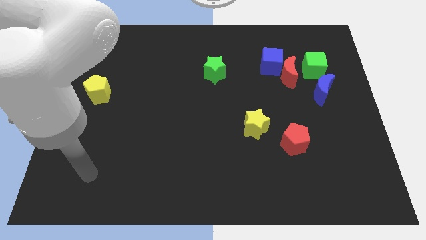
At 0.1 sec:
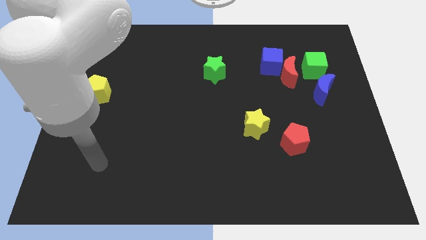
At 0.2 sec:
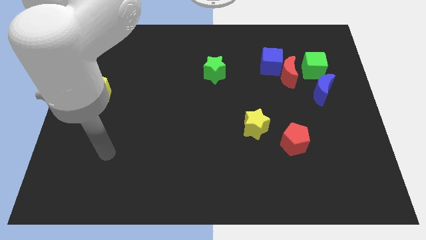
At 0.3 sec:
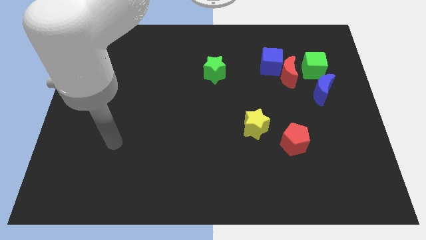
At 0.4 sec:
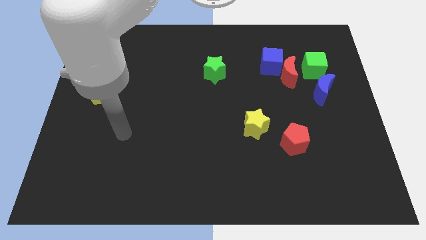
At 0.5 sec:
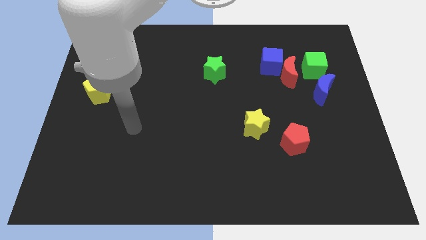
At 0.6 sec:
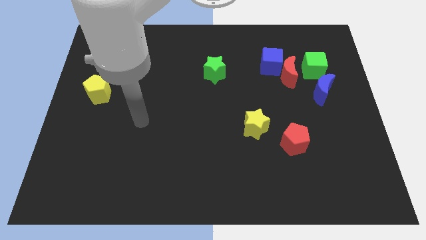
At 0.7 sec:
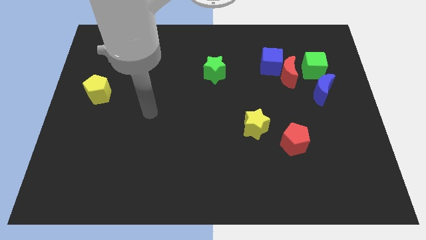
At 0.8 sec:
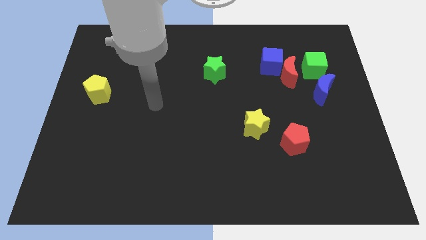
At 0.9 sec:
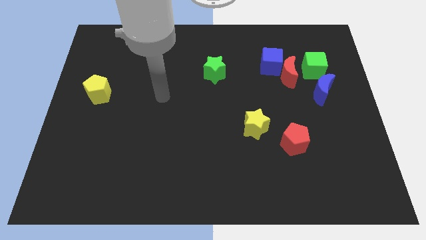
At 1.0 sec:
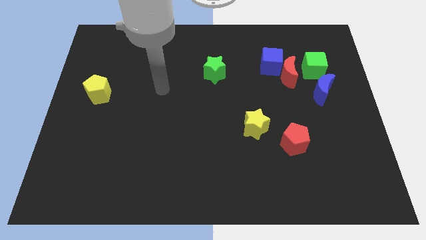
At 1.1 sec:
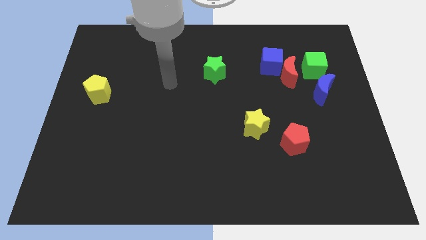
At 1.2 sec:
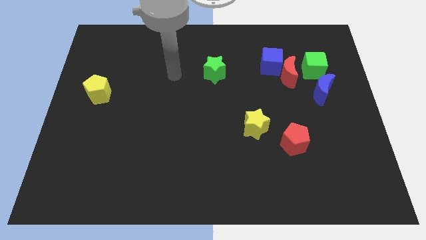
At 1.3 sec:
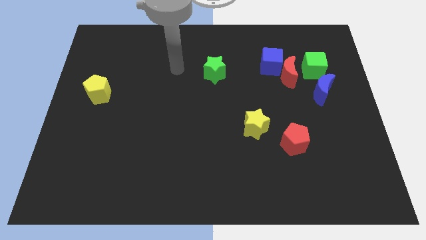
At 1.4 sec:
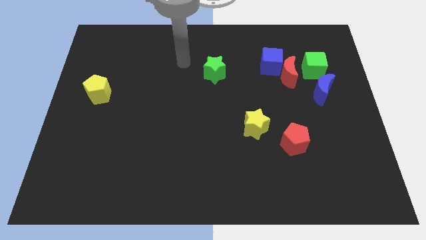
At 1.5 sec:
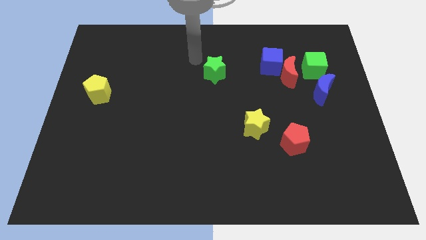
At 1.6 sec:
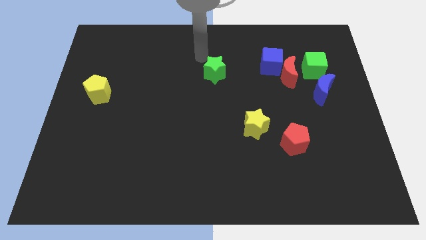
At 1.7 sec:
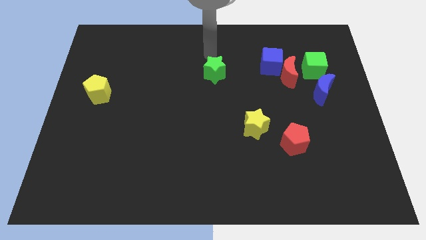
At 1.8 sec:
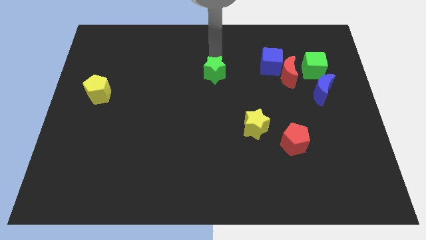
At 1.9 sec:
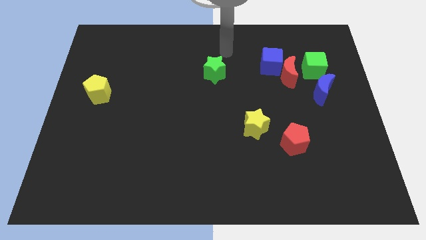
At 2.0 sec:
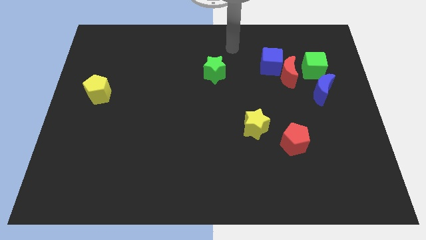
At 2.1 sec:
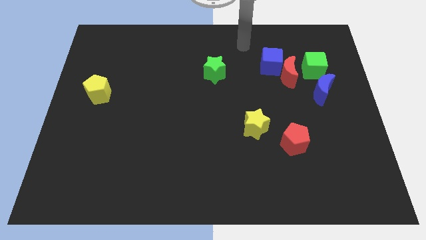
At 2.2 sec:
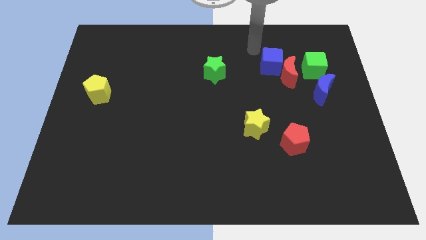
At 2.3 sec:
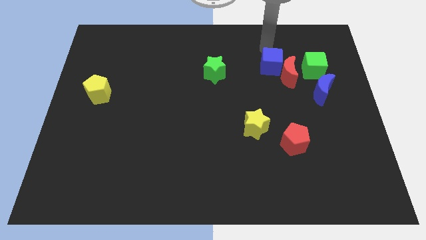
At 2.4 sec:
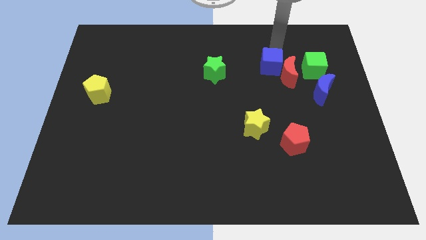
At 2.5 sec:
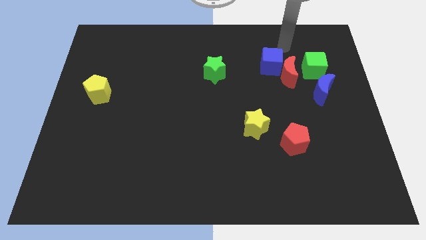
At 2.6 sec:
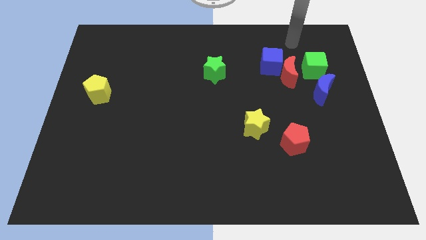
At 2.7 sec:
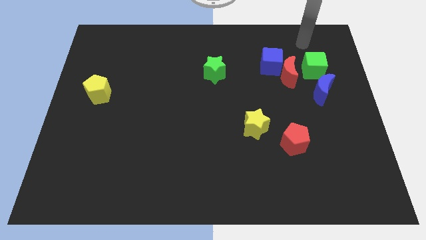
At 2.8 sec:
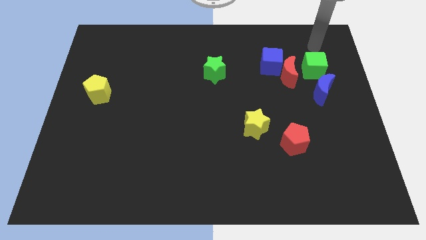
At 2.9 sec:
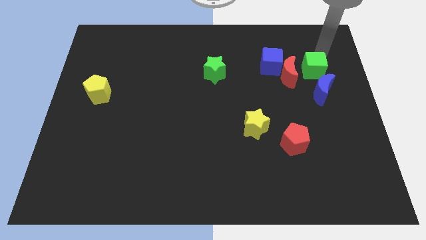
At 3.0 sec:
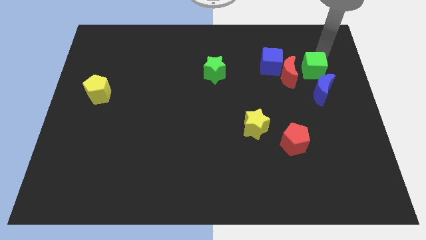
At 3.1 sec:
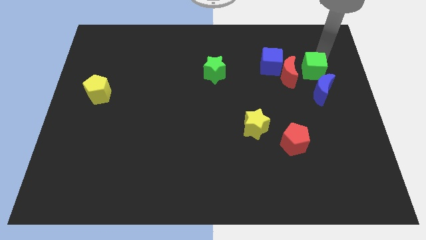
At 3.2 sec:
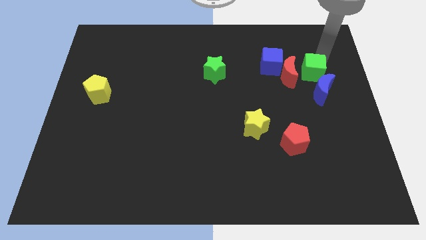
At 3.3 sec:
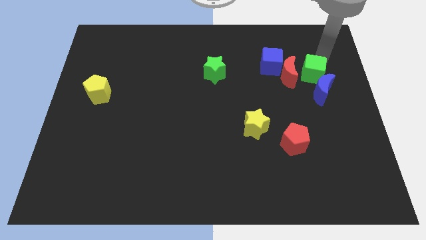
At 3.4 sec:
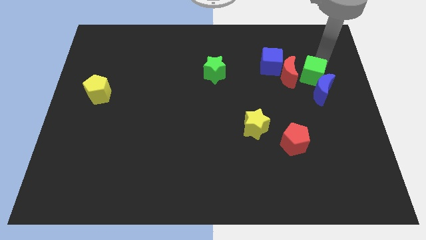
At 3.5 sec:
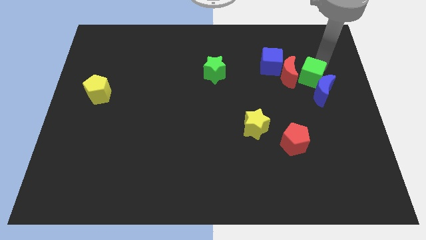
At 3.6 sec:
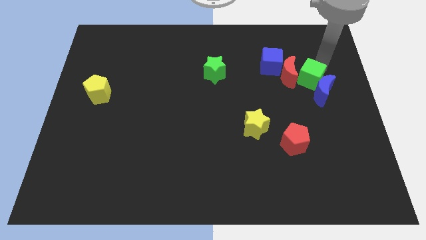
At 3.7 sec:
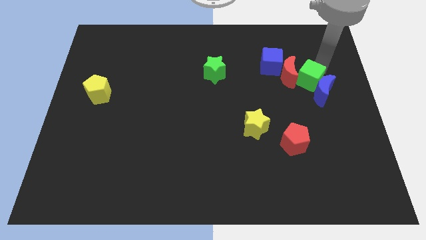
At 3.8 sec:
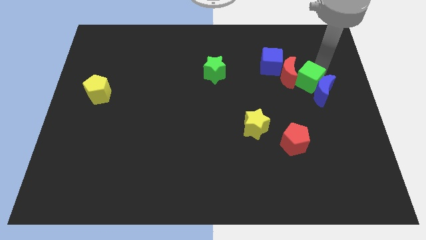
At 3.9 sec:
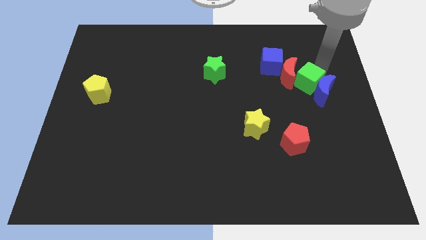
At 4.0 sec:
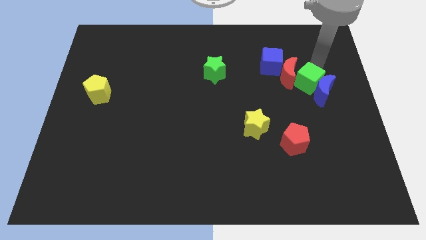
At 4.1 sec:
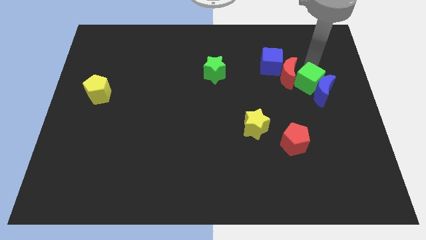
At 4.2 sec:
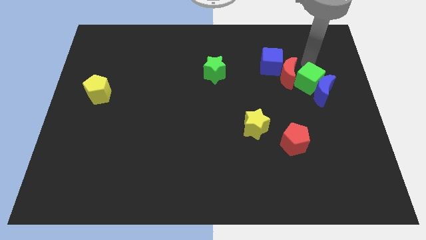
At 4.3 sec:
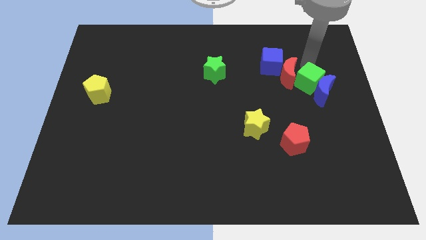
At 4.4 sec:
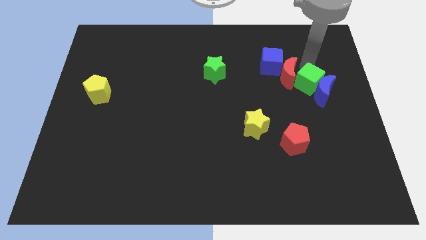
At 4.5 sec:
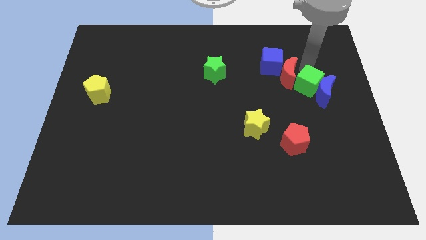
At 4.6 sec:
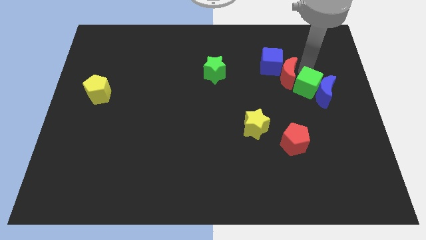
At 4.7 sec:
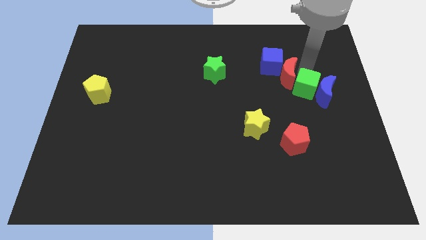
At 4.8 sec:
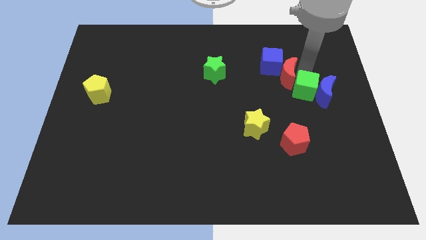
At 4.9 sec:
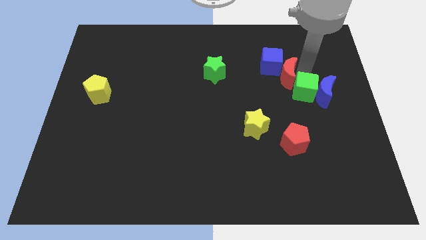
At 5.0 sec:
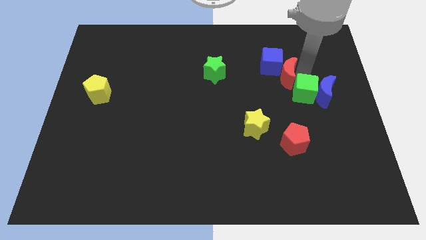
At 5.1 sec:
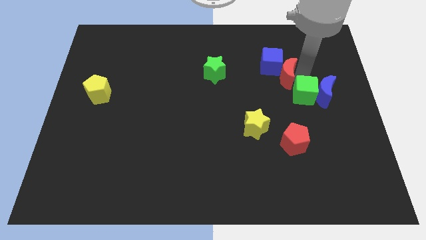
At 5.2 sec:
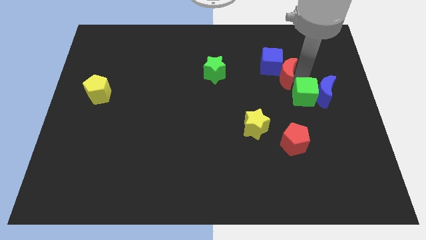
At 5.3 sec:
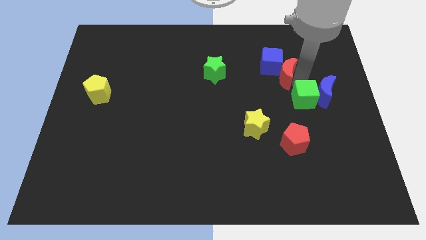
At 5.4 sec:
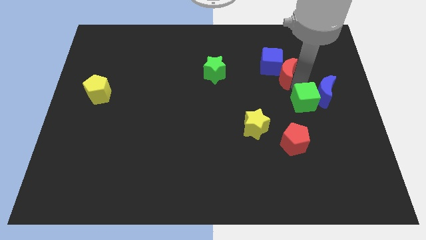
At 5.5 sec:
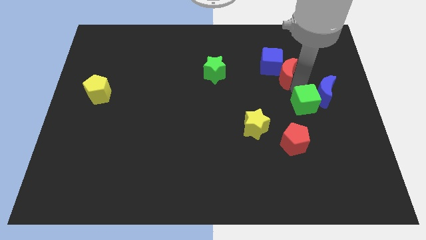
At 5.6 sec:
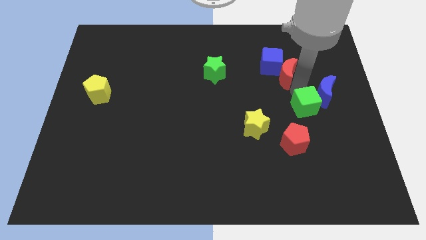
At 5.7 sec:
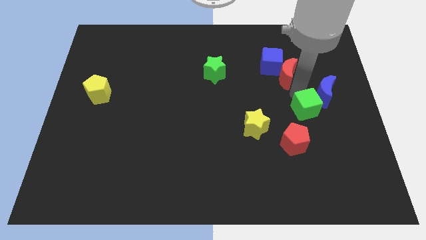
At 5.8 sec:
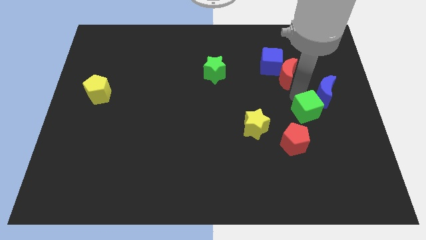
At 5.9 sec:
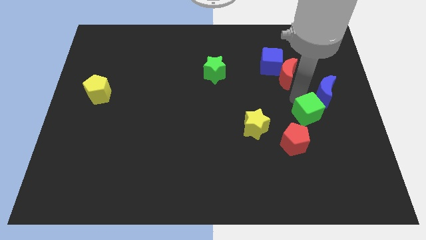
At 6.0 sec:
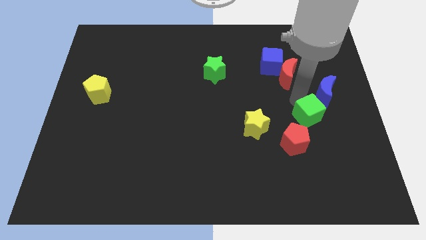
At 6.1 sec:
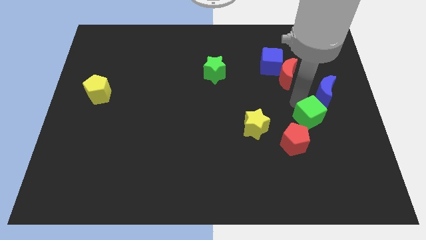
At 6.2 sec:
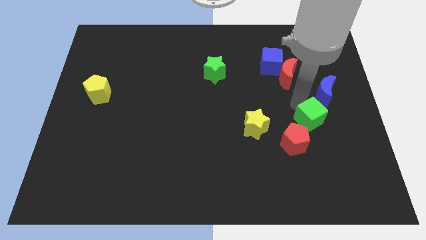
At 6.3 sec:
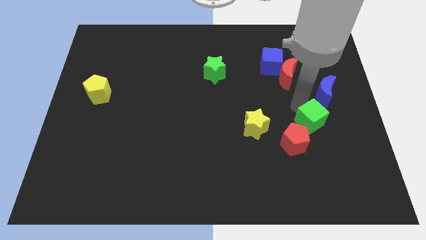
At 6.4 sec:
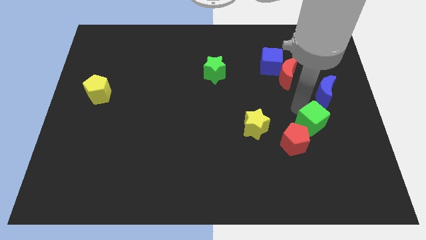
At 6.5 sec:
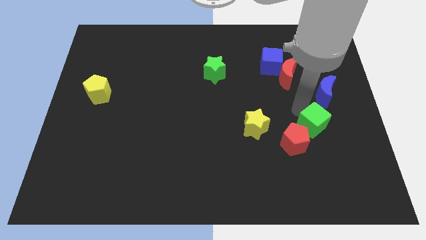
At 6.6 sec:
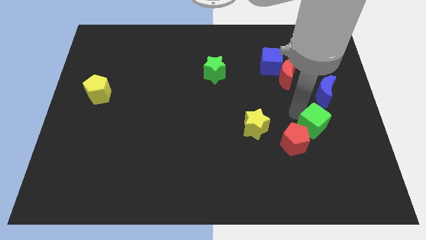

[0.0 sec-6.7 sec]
move the green cube right of the red pentagon

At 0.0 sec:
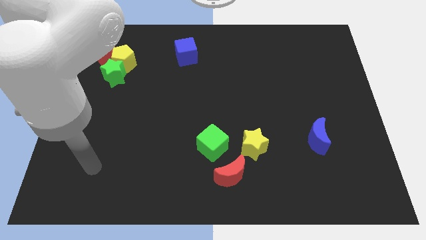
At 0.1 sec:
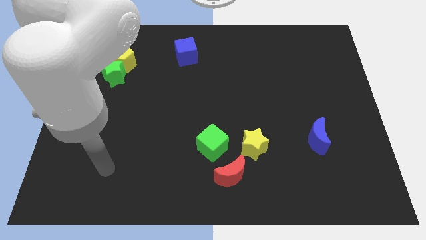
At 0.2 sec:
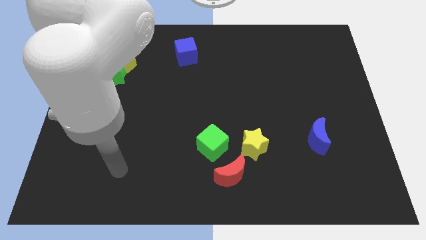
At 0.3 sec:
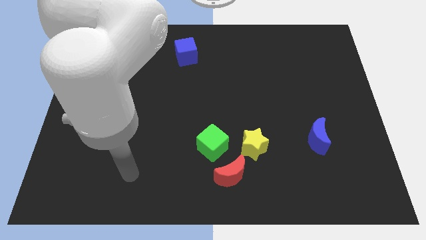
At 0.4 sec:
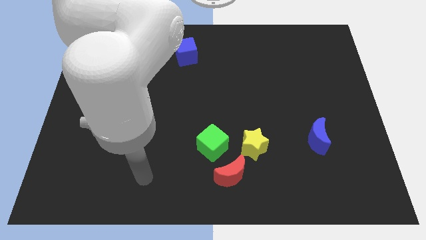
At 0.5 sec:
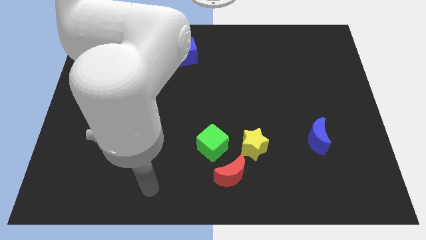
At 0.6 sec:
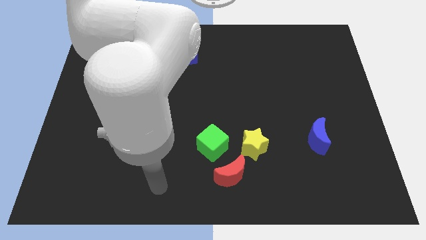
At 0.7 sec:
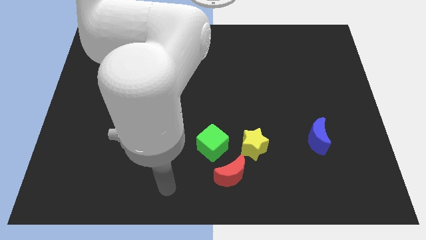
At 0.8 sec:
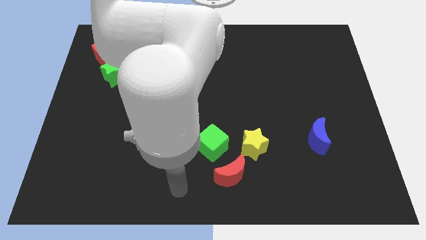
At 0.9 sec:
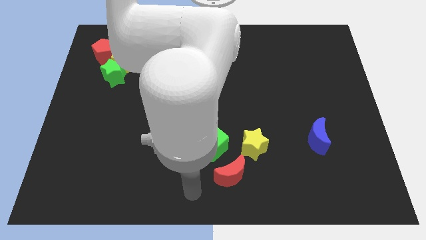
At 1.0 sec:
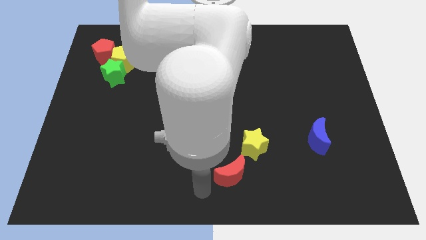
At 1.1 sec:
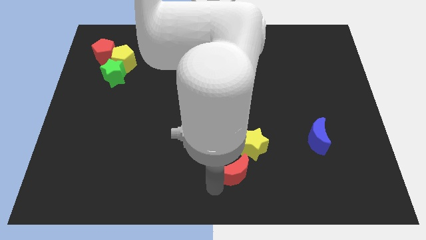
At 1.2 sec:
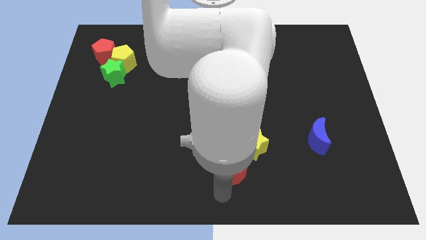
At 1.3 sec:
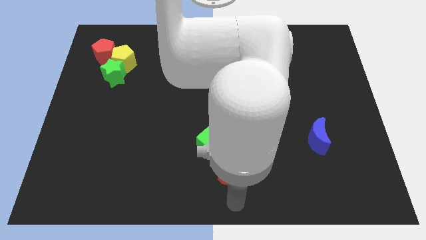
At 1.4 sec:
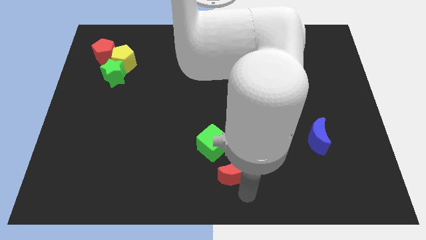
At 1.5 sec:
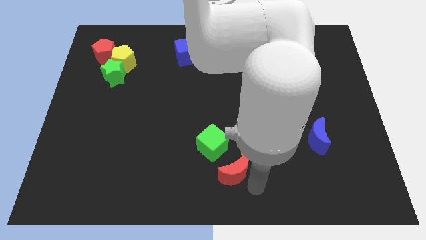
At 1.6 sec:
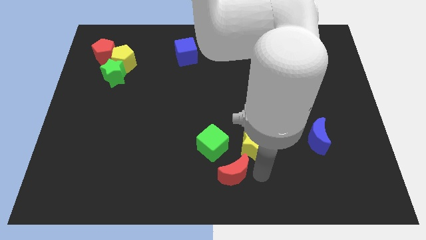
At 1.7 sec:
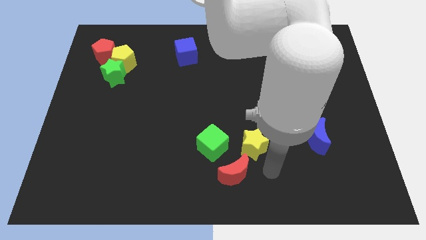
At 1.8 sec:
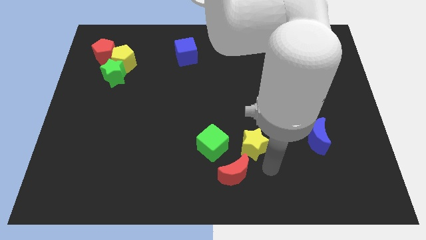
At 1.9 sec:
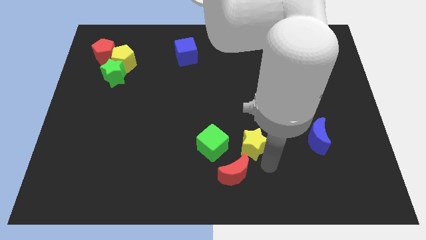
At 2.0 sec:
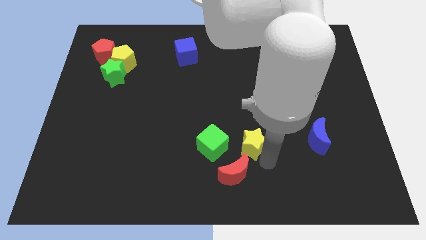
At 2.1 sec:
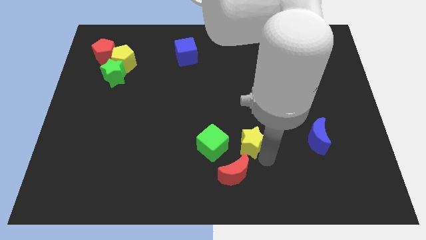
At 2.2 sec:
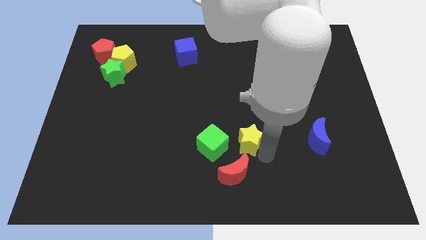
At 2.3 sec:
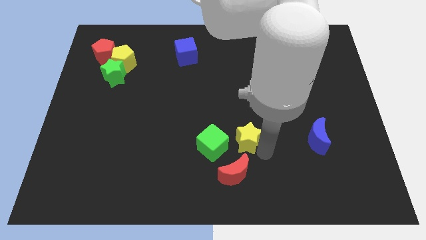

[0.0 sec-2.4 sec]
move the yellow star to the top right of the green cube
